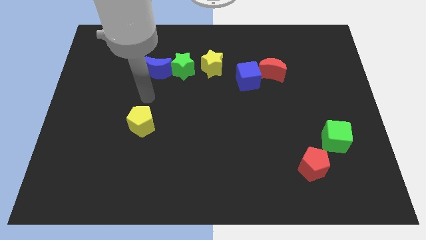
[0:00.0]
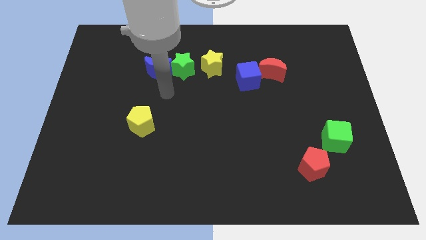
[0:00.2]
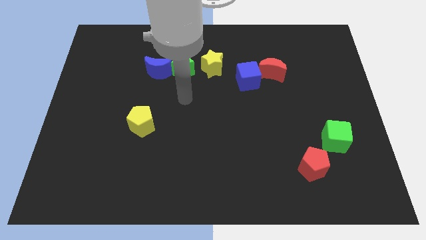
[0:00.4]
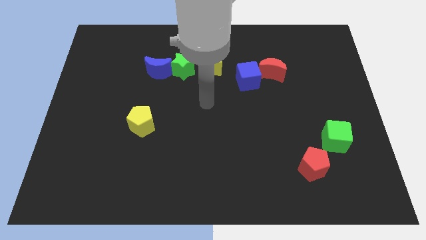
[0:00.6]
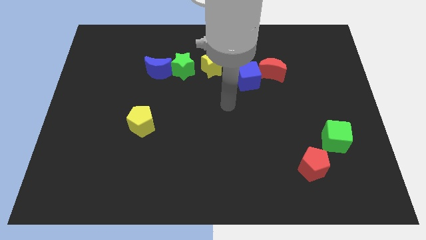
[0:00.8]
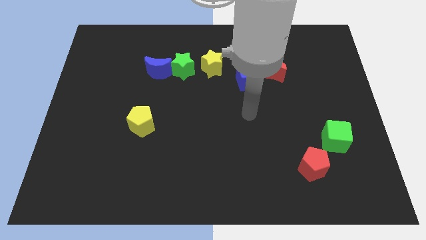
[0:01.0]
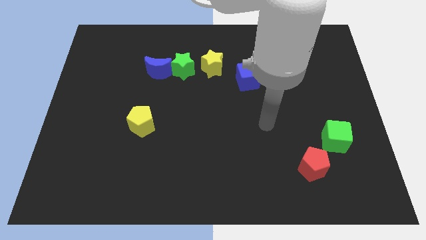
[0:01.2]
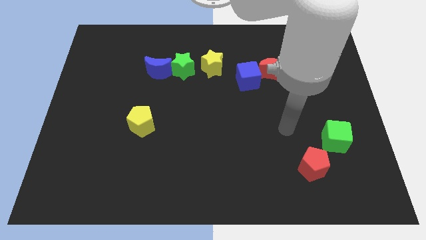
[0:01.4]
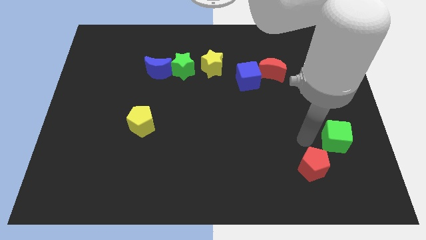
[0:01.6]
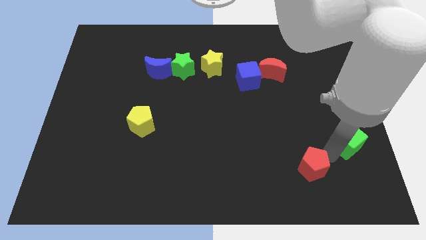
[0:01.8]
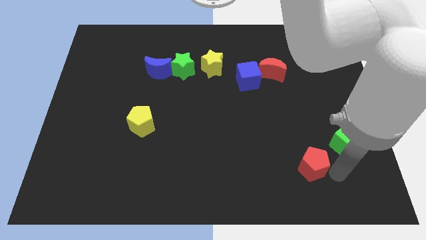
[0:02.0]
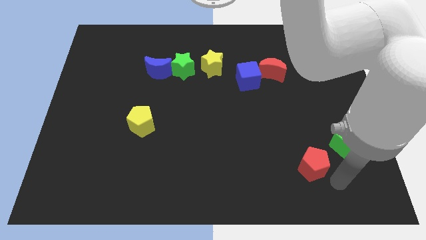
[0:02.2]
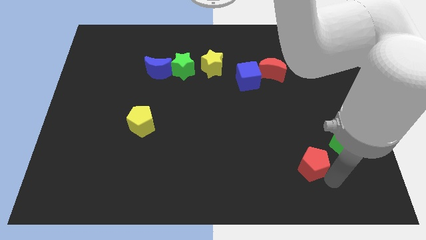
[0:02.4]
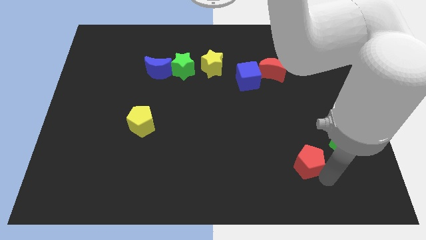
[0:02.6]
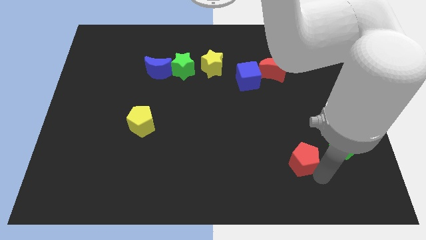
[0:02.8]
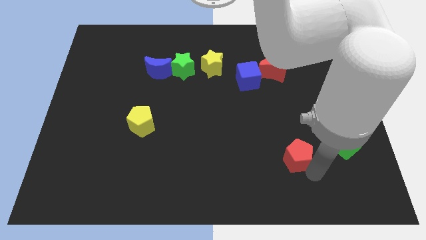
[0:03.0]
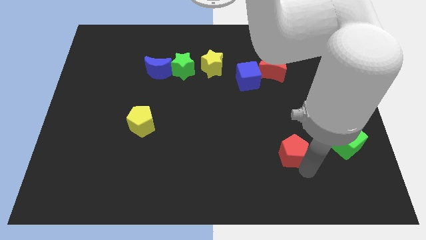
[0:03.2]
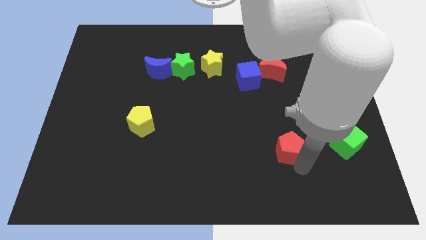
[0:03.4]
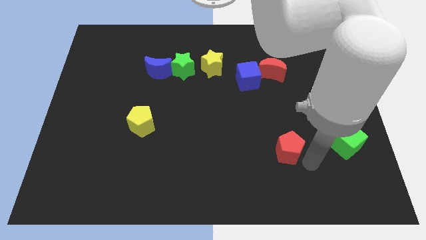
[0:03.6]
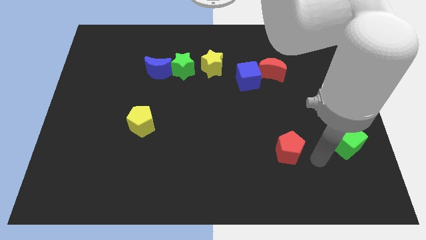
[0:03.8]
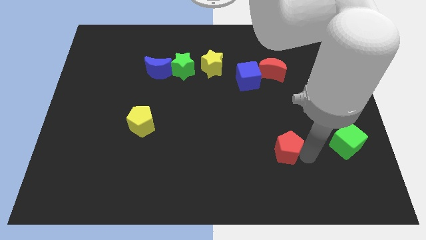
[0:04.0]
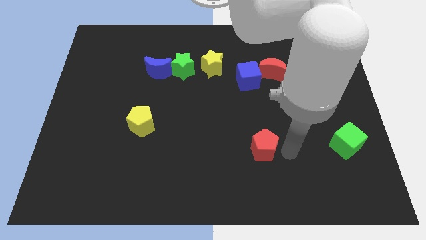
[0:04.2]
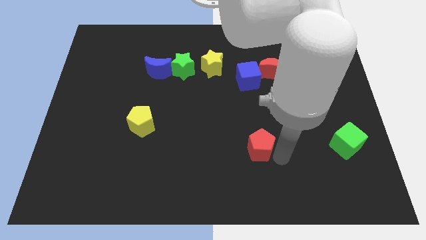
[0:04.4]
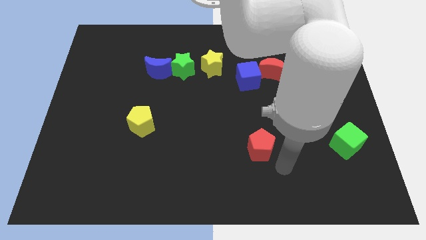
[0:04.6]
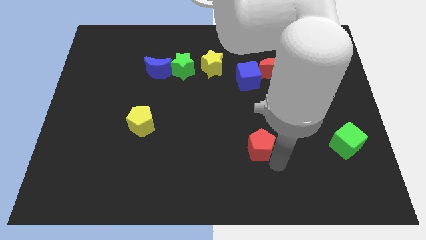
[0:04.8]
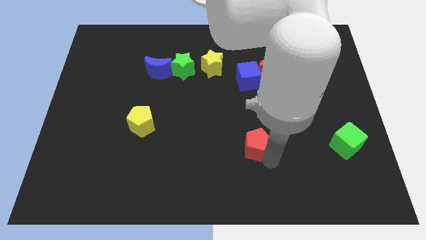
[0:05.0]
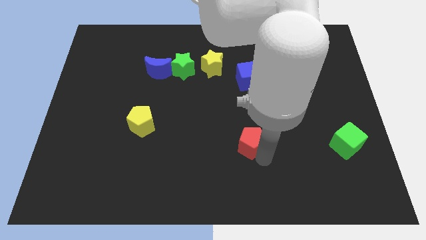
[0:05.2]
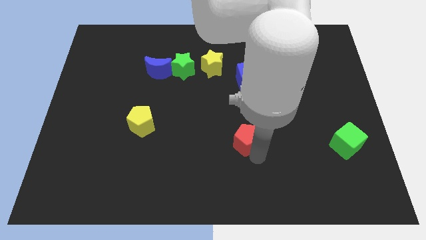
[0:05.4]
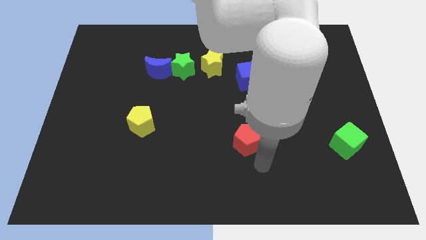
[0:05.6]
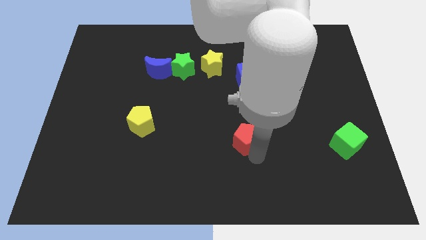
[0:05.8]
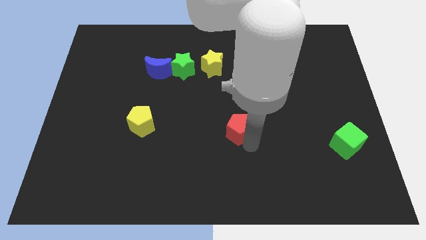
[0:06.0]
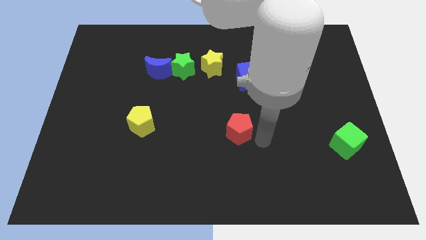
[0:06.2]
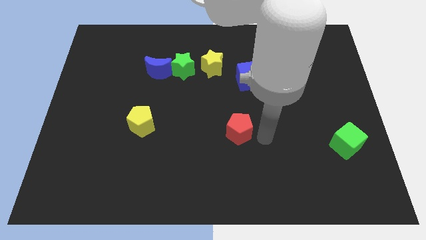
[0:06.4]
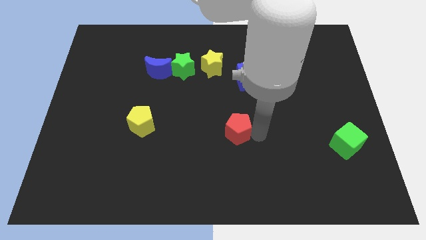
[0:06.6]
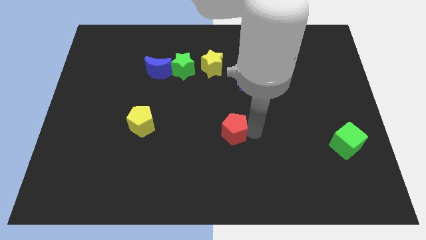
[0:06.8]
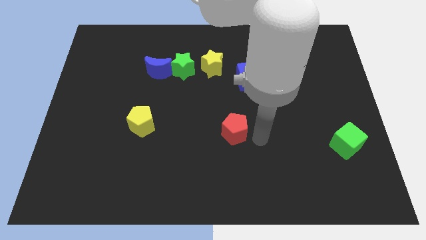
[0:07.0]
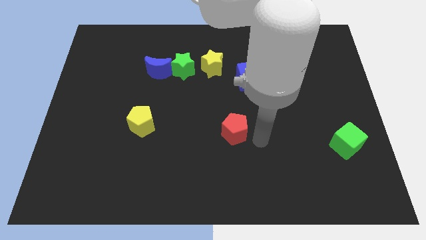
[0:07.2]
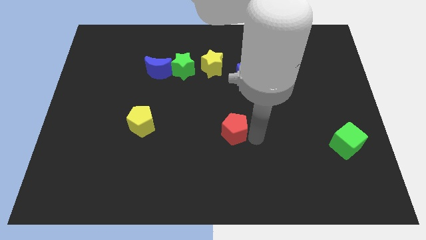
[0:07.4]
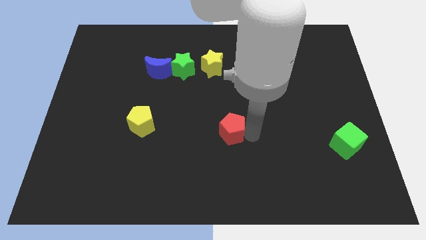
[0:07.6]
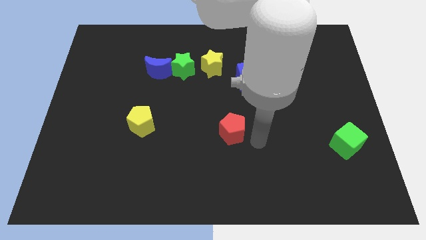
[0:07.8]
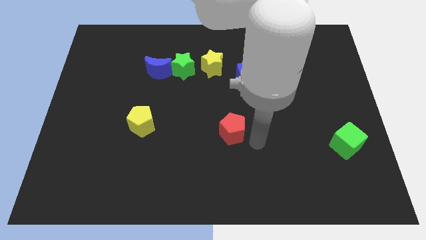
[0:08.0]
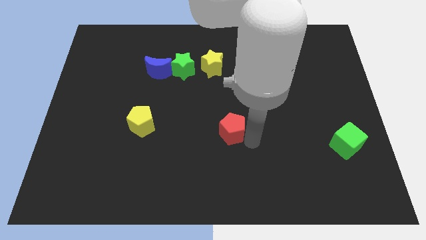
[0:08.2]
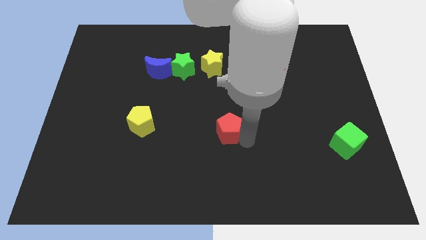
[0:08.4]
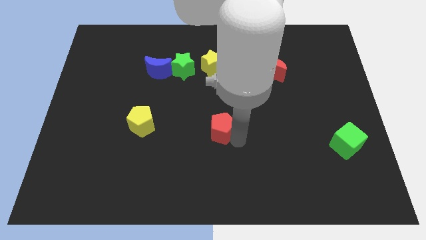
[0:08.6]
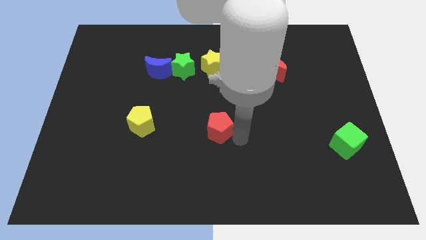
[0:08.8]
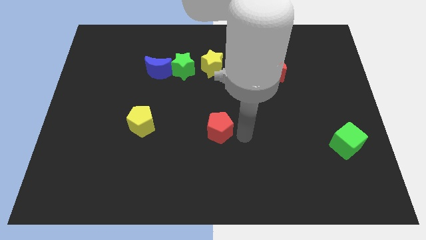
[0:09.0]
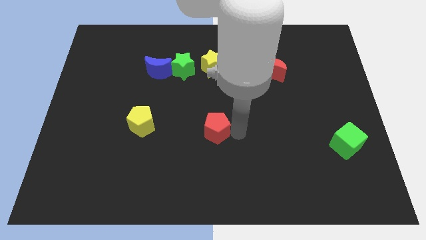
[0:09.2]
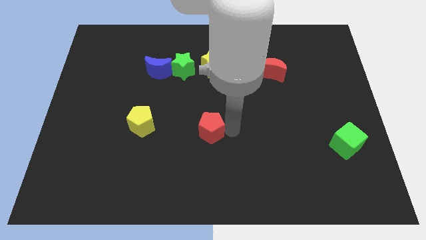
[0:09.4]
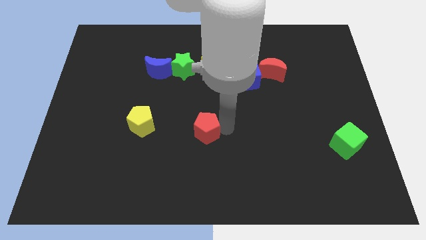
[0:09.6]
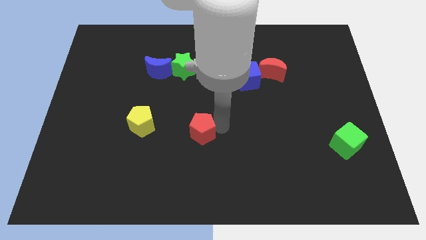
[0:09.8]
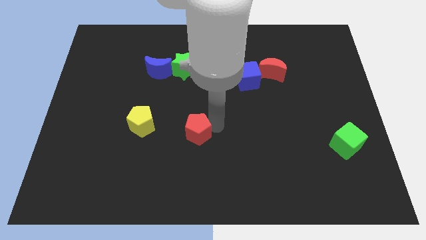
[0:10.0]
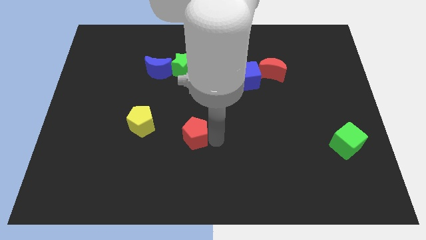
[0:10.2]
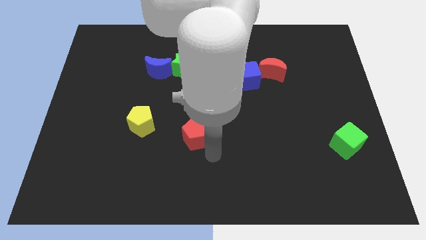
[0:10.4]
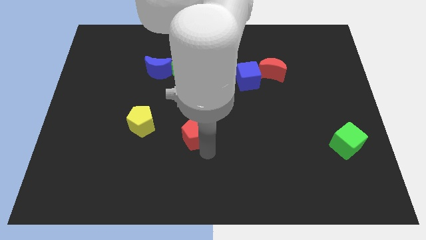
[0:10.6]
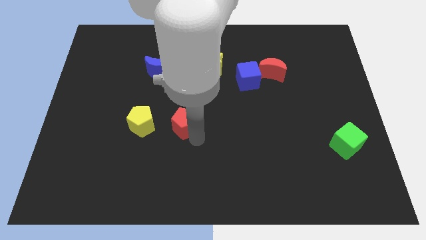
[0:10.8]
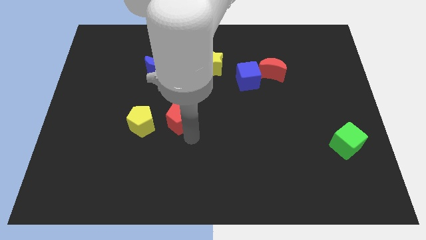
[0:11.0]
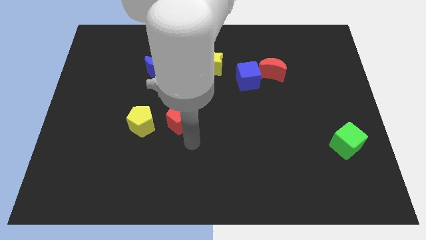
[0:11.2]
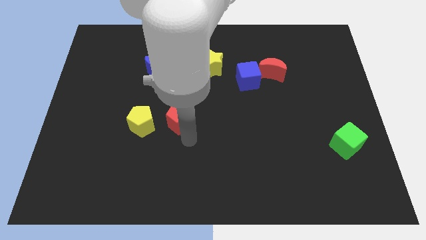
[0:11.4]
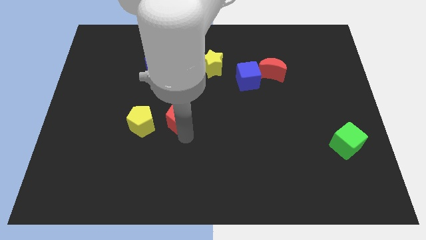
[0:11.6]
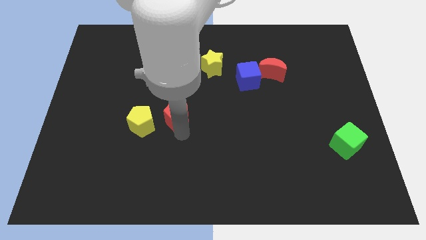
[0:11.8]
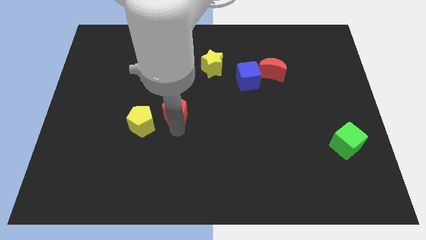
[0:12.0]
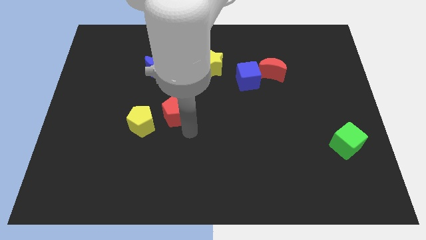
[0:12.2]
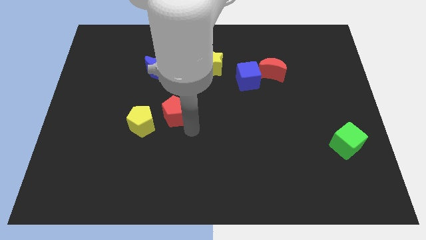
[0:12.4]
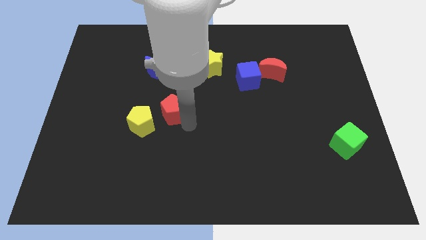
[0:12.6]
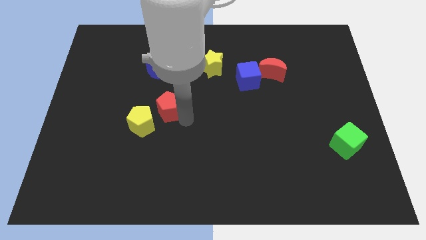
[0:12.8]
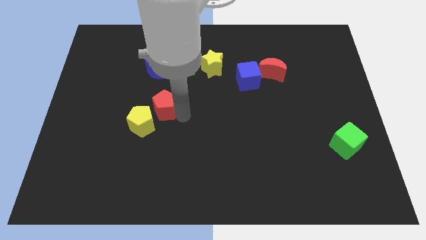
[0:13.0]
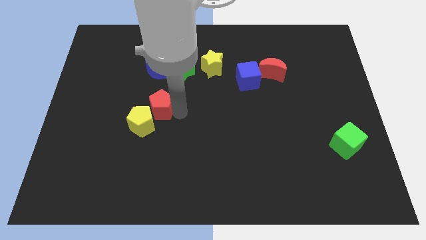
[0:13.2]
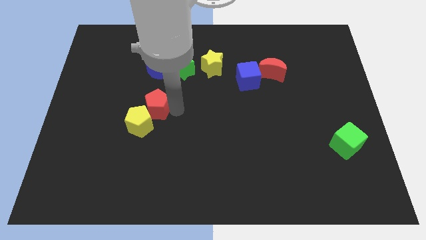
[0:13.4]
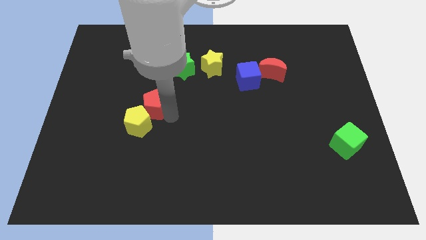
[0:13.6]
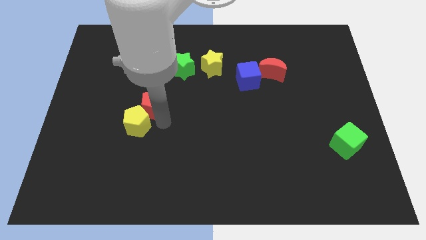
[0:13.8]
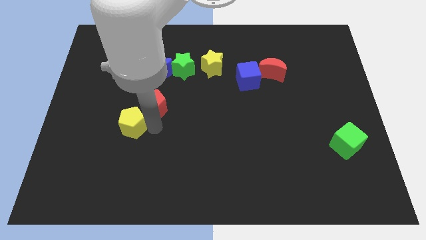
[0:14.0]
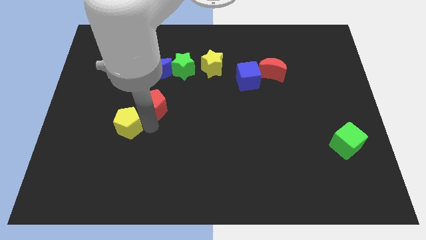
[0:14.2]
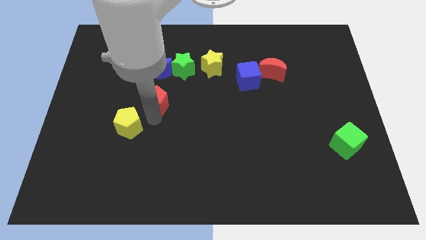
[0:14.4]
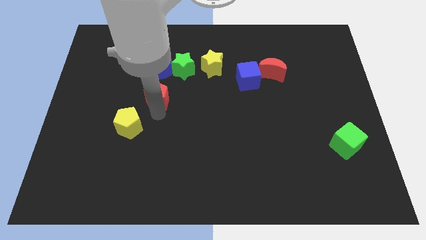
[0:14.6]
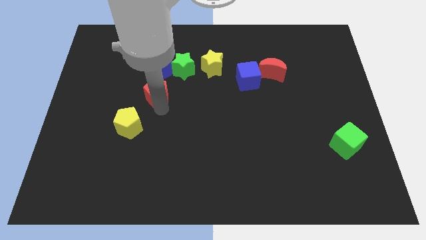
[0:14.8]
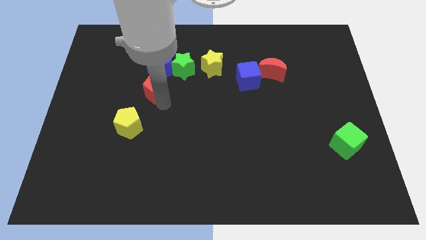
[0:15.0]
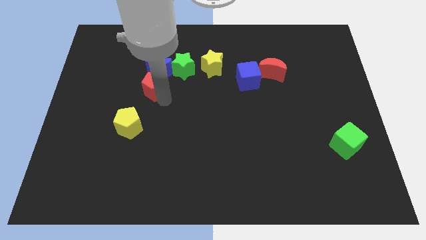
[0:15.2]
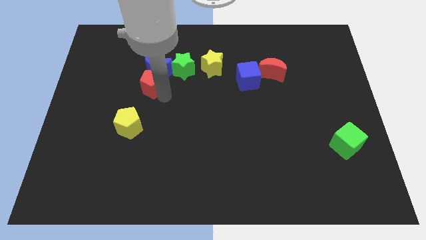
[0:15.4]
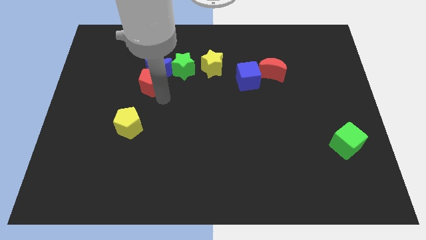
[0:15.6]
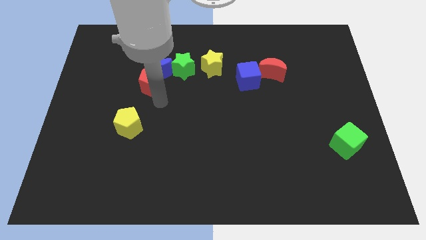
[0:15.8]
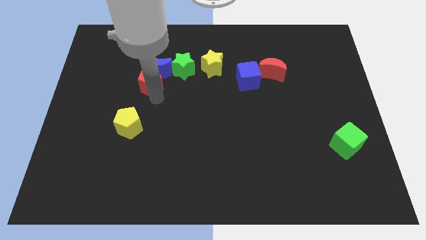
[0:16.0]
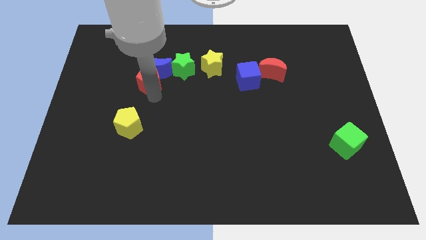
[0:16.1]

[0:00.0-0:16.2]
slide the red pentagon to the left of the green star
